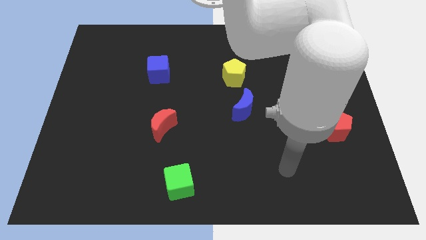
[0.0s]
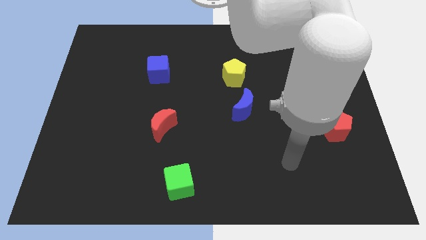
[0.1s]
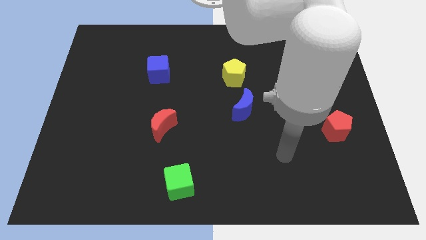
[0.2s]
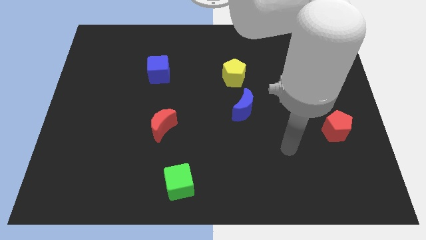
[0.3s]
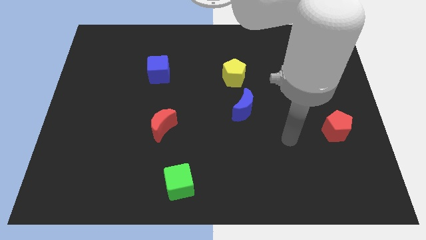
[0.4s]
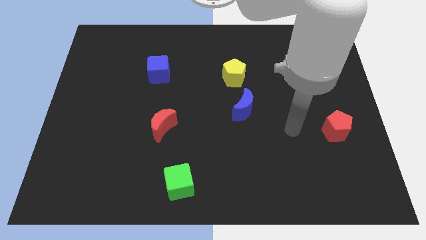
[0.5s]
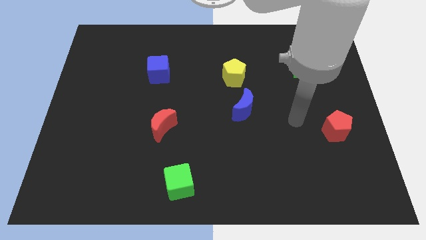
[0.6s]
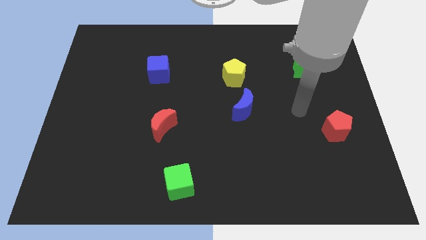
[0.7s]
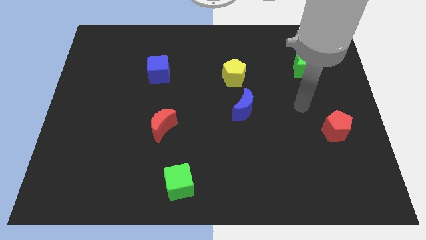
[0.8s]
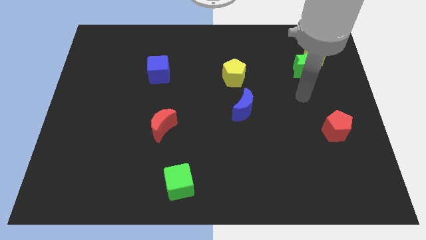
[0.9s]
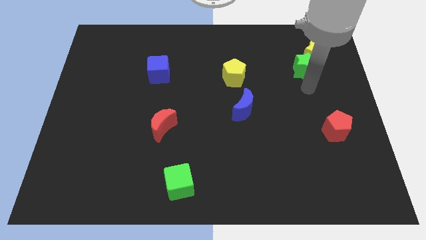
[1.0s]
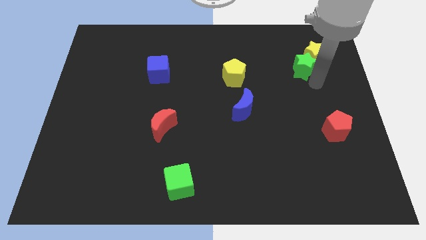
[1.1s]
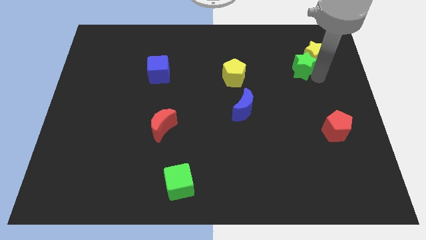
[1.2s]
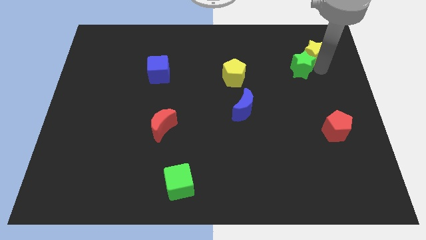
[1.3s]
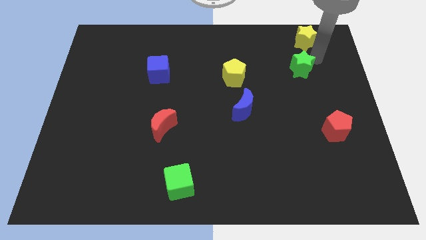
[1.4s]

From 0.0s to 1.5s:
pull the green star apart from the yellow star

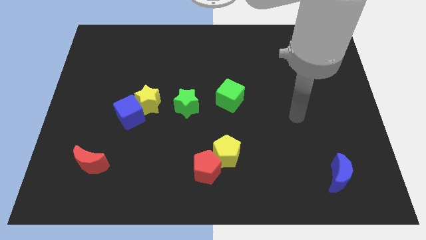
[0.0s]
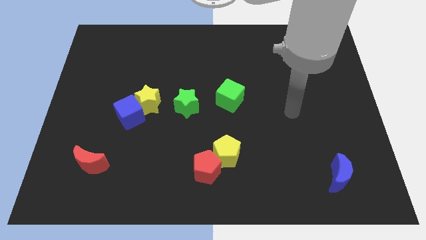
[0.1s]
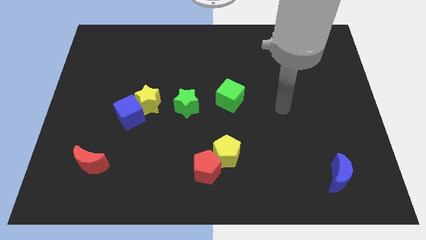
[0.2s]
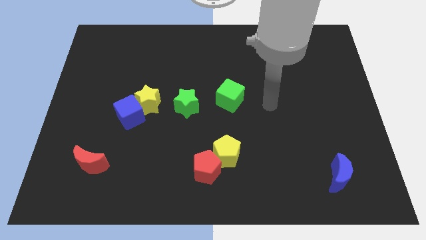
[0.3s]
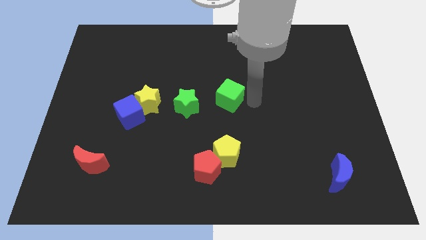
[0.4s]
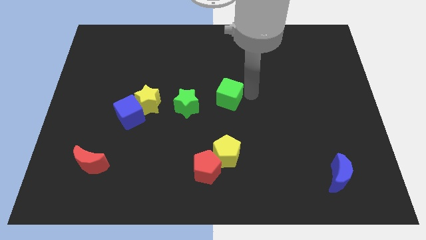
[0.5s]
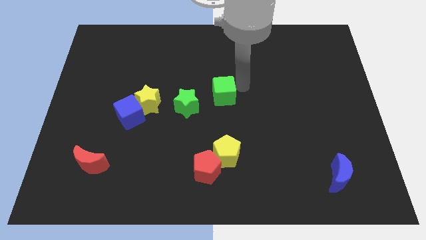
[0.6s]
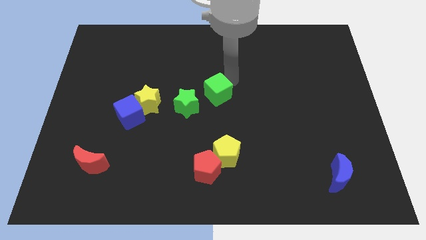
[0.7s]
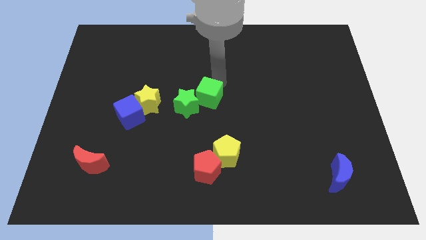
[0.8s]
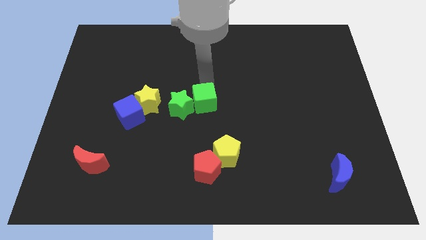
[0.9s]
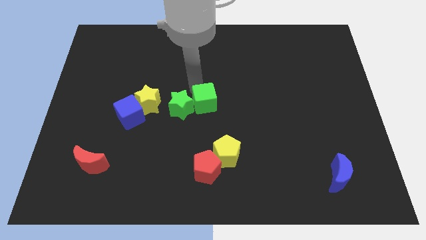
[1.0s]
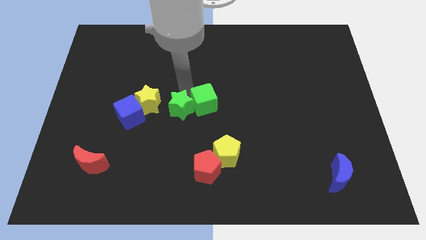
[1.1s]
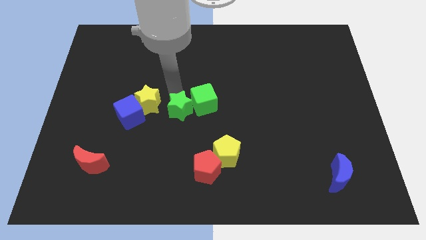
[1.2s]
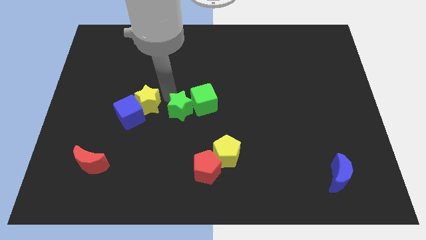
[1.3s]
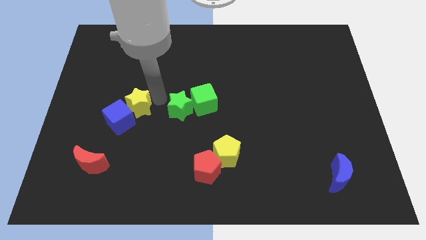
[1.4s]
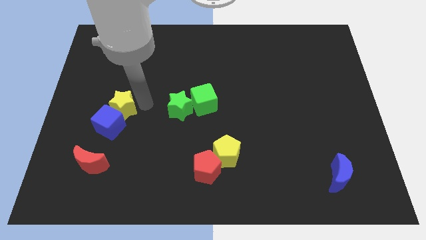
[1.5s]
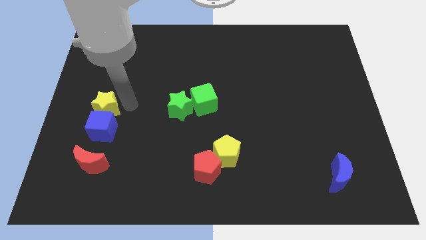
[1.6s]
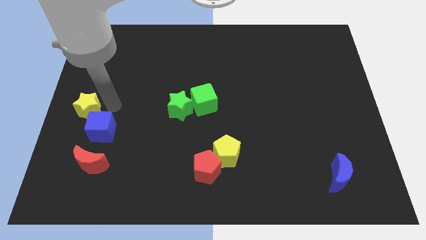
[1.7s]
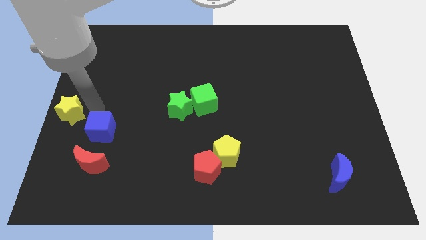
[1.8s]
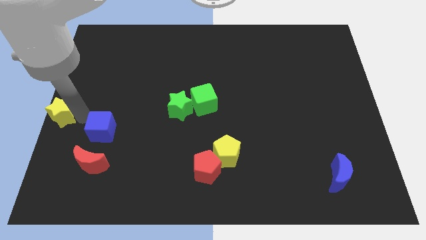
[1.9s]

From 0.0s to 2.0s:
pull the blue cube apart from the yellow star

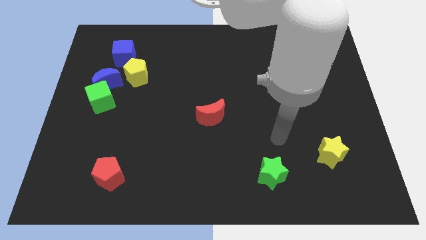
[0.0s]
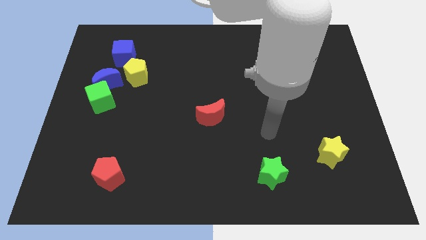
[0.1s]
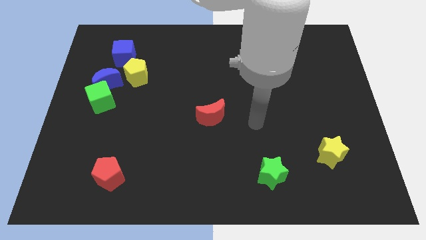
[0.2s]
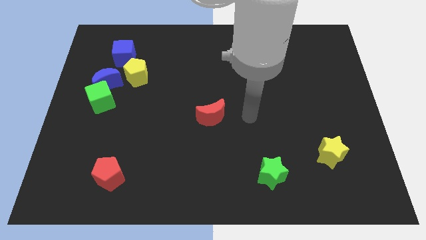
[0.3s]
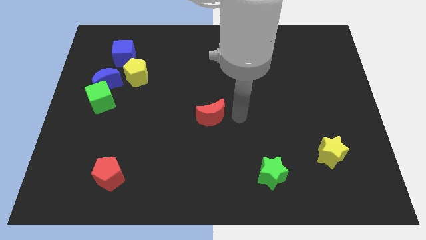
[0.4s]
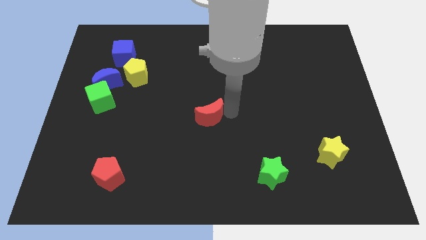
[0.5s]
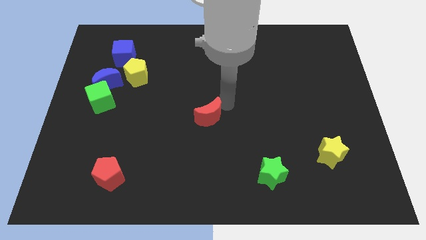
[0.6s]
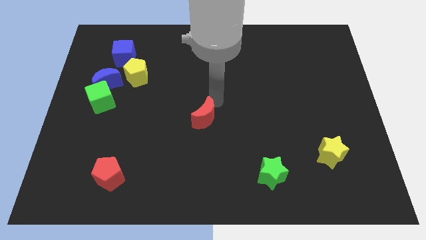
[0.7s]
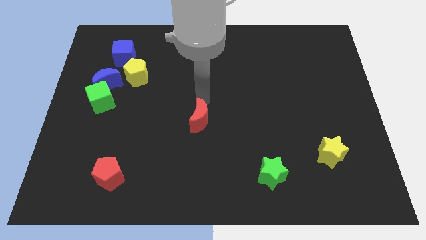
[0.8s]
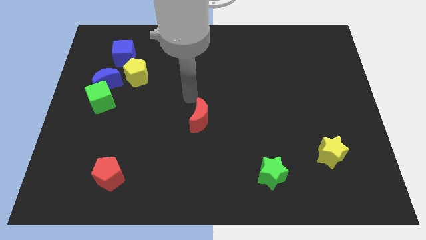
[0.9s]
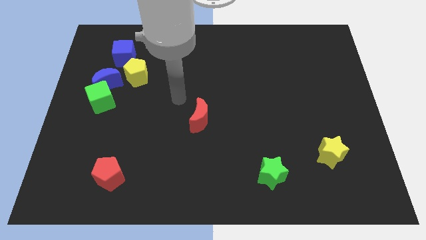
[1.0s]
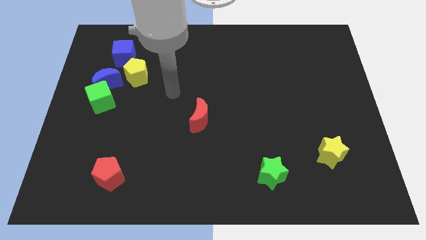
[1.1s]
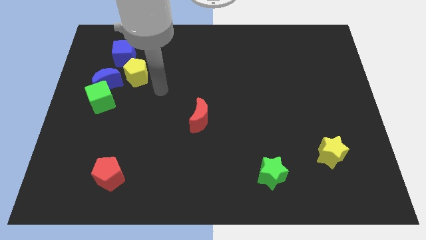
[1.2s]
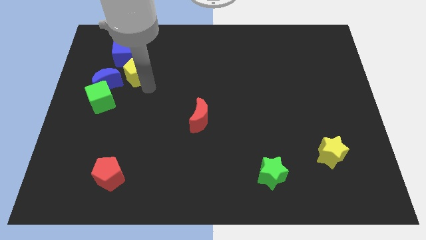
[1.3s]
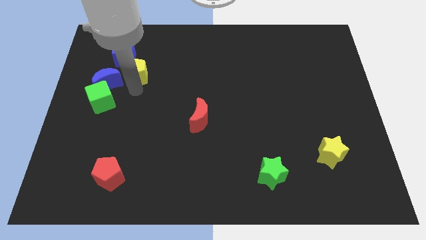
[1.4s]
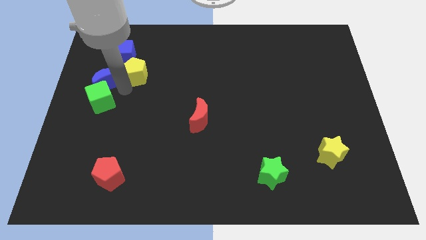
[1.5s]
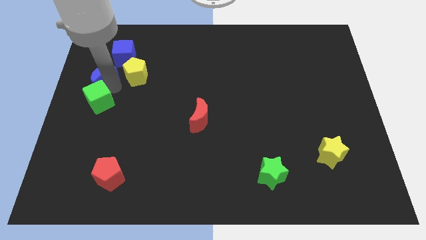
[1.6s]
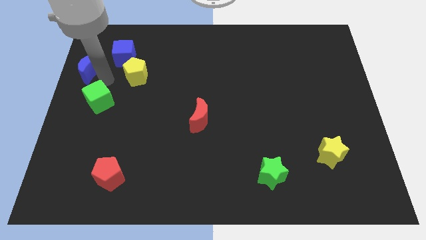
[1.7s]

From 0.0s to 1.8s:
separate the green cube from the blue moon

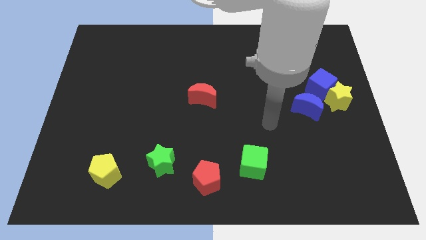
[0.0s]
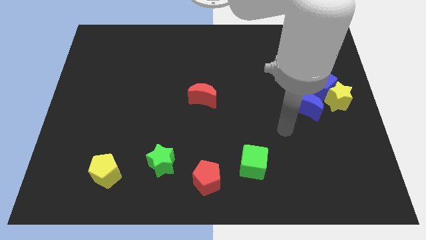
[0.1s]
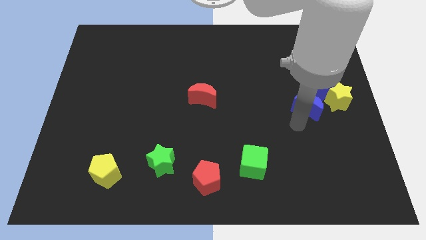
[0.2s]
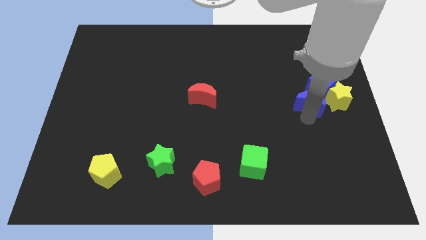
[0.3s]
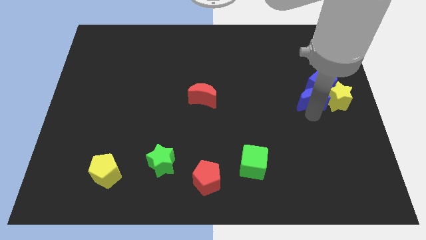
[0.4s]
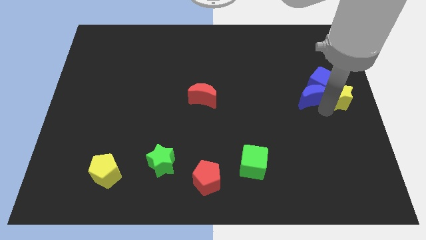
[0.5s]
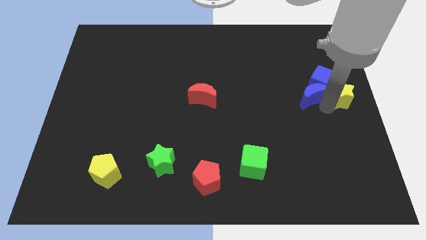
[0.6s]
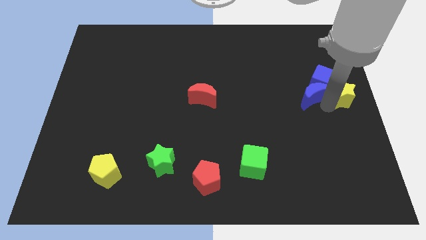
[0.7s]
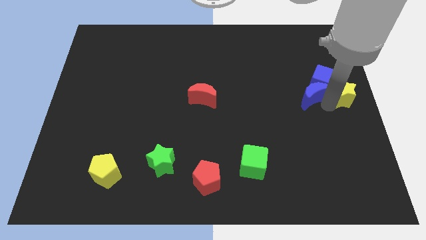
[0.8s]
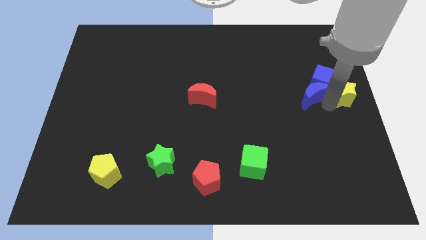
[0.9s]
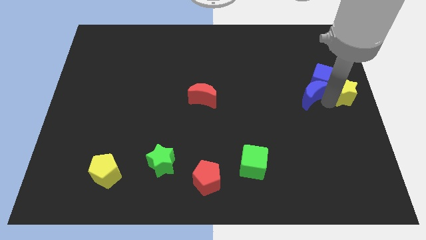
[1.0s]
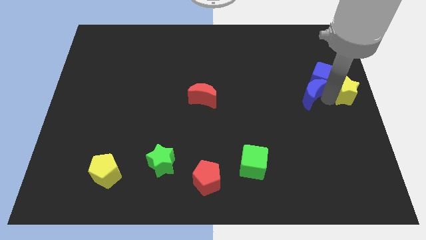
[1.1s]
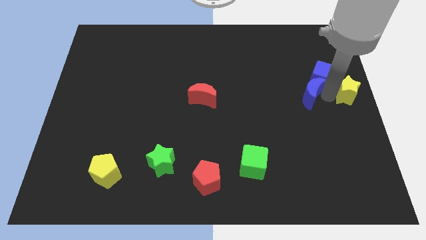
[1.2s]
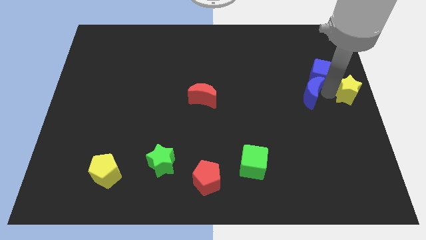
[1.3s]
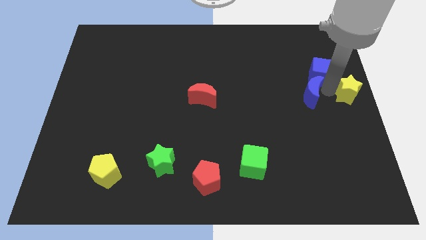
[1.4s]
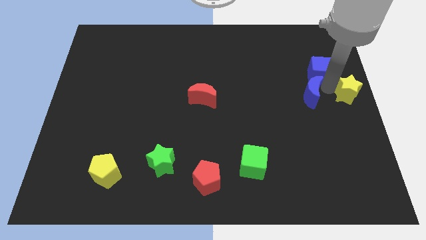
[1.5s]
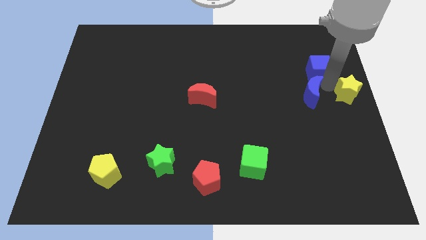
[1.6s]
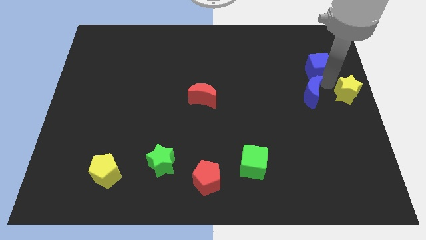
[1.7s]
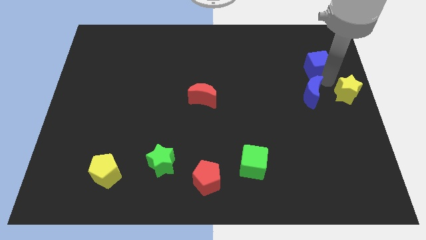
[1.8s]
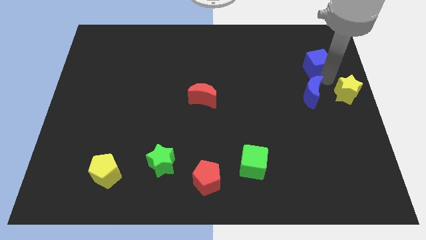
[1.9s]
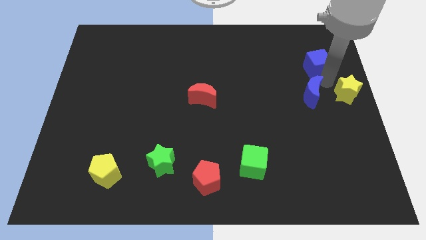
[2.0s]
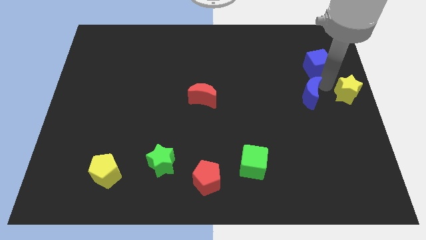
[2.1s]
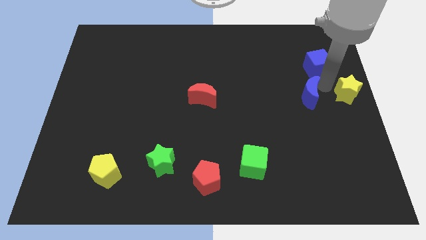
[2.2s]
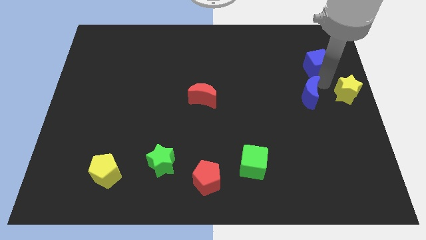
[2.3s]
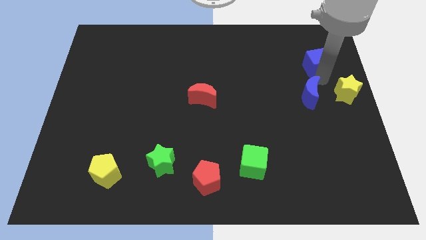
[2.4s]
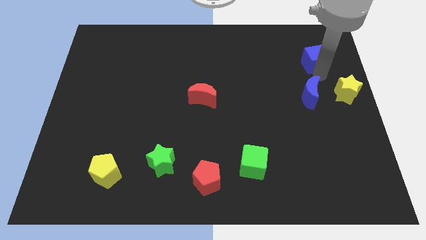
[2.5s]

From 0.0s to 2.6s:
move the blue cube away from the yellow star and blue moon

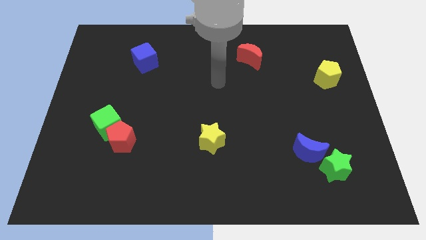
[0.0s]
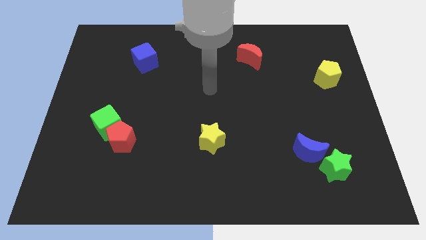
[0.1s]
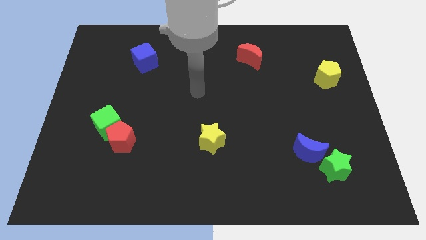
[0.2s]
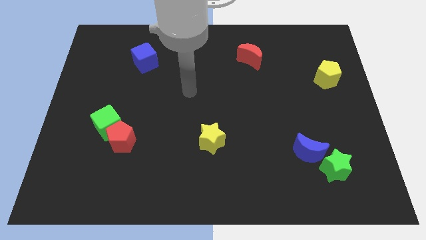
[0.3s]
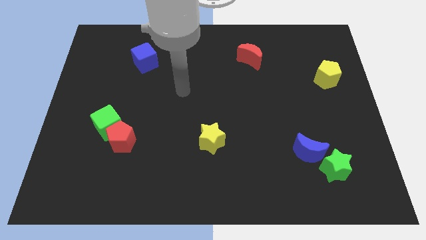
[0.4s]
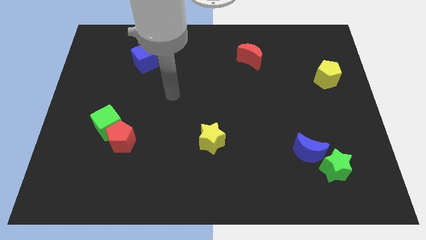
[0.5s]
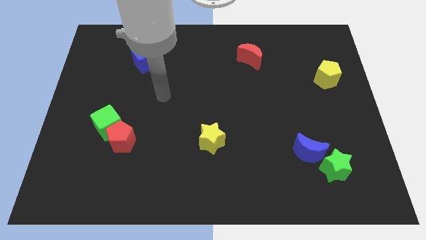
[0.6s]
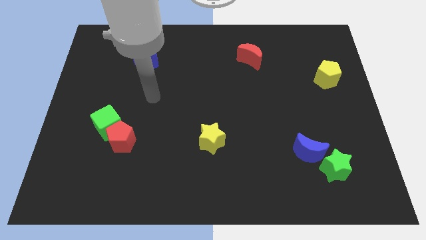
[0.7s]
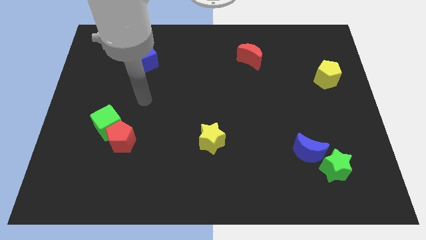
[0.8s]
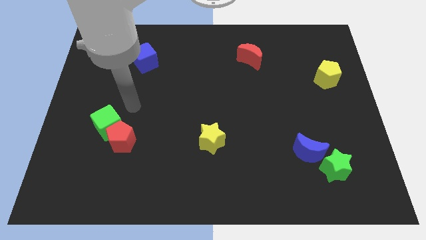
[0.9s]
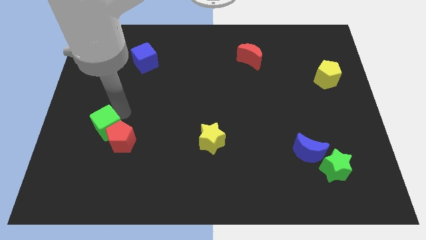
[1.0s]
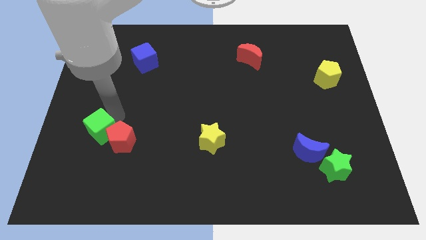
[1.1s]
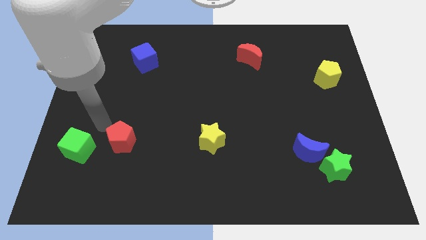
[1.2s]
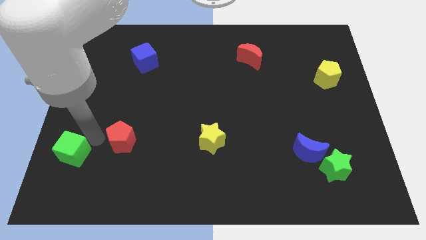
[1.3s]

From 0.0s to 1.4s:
separate the red pentagon from the green cube
